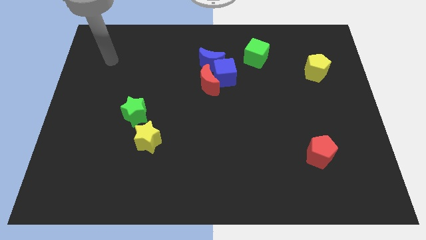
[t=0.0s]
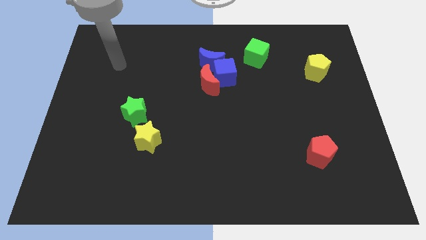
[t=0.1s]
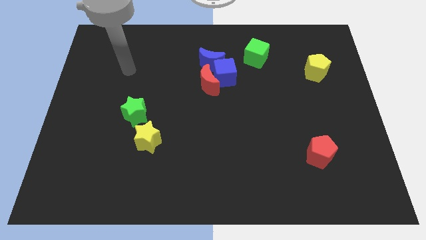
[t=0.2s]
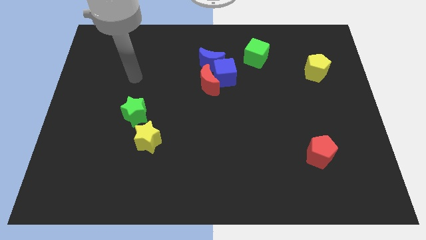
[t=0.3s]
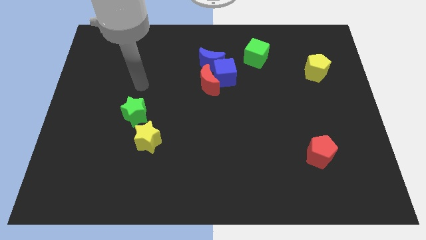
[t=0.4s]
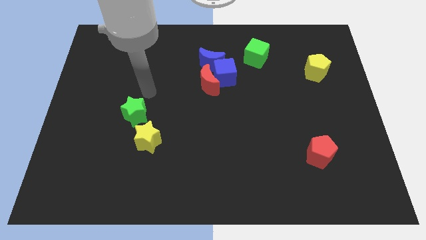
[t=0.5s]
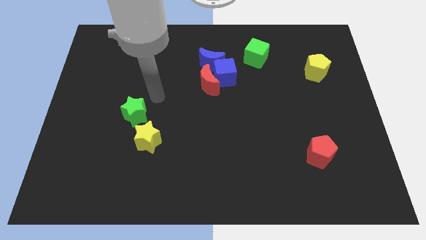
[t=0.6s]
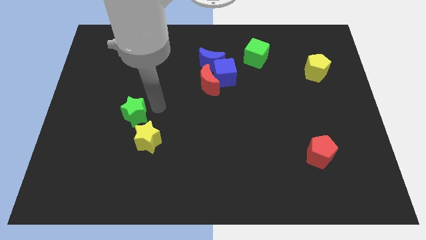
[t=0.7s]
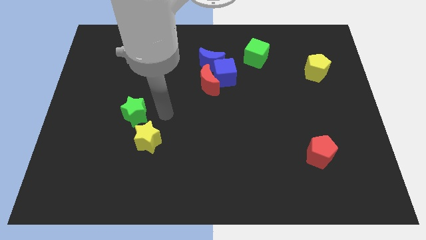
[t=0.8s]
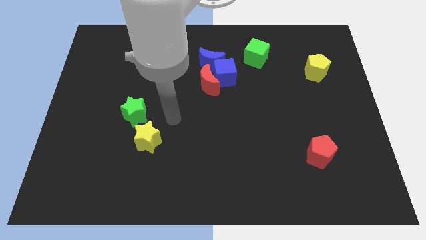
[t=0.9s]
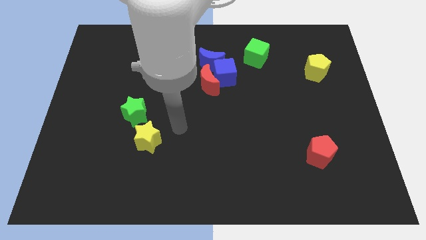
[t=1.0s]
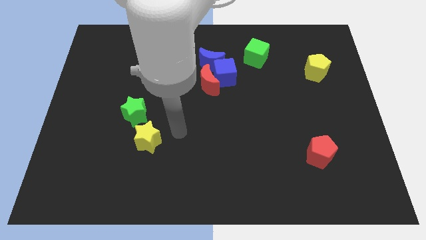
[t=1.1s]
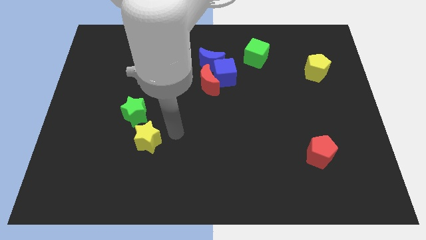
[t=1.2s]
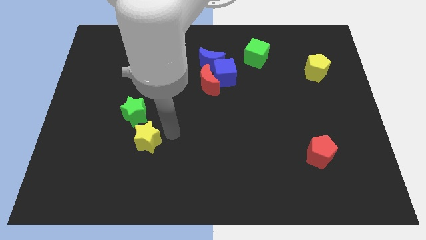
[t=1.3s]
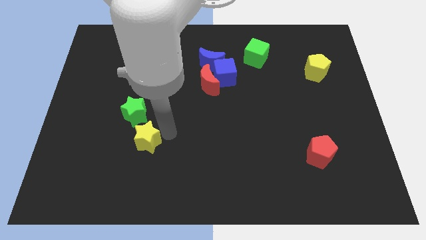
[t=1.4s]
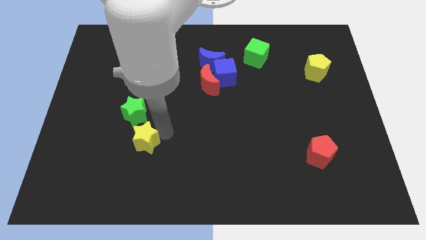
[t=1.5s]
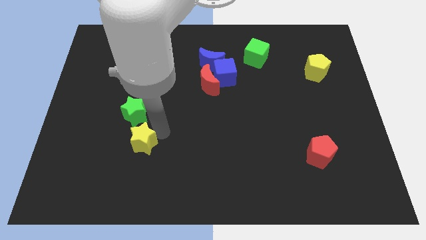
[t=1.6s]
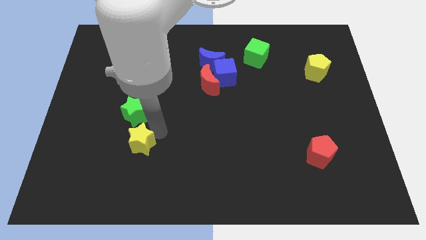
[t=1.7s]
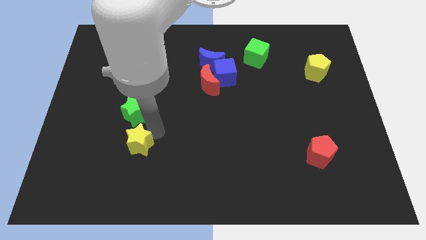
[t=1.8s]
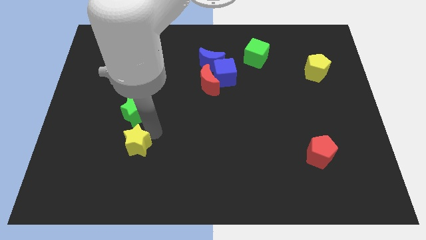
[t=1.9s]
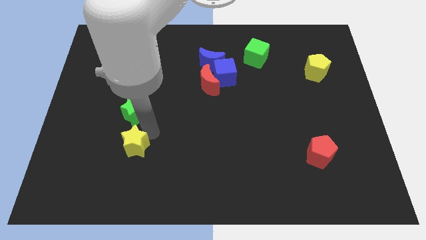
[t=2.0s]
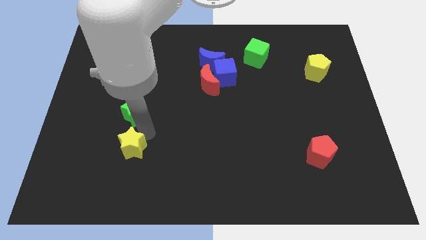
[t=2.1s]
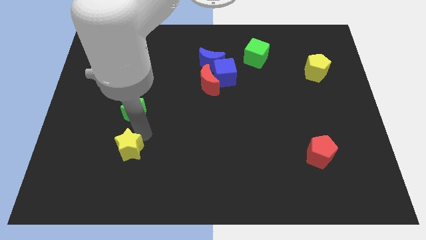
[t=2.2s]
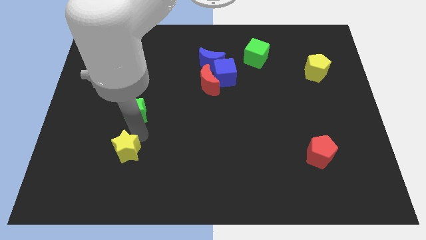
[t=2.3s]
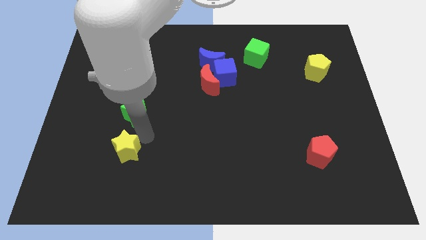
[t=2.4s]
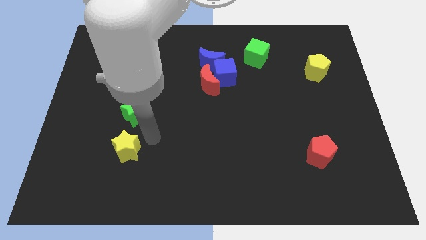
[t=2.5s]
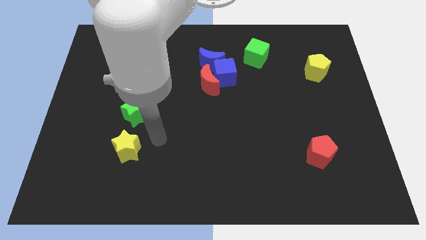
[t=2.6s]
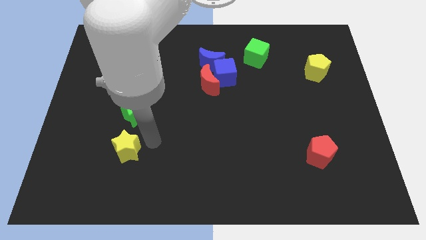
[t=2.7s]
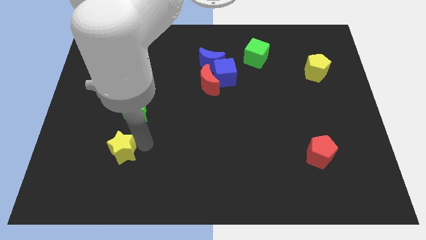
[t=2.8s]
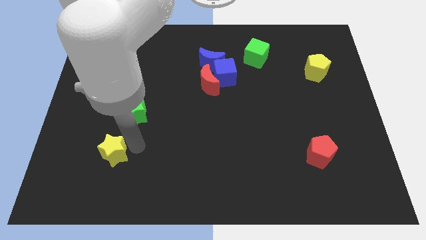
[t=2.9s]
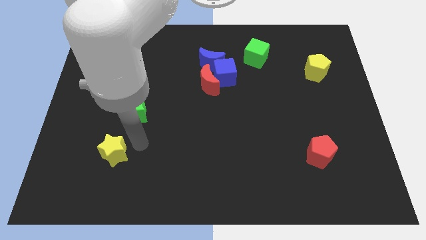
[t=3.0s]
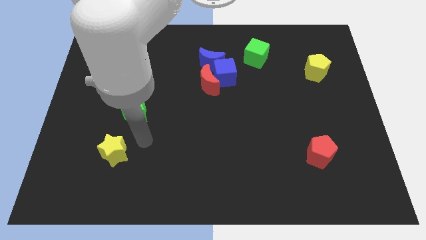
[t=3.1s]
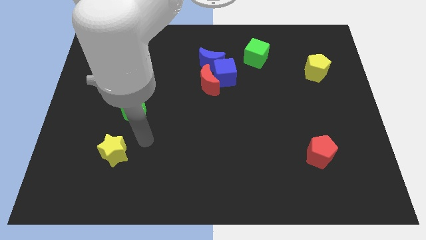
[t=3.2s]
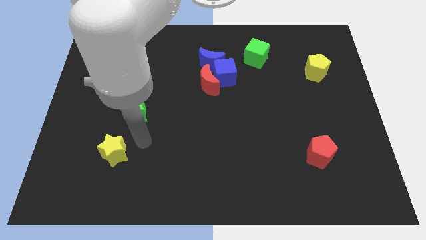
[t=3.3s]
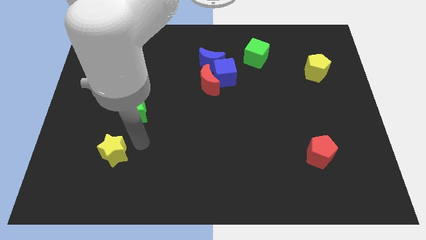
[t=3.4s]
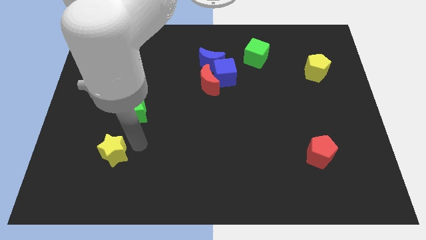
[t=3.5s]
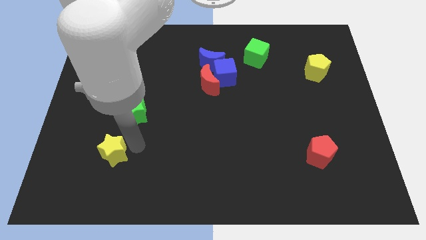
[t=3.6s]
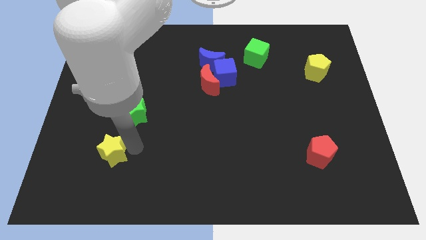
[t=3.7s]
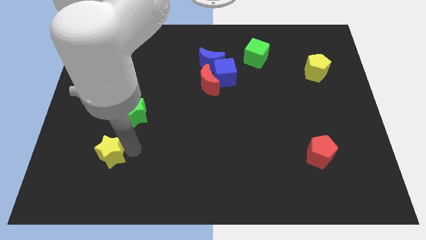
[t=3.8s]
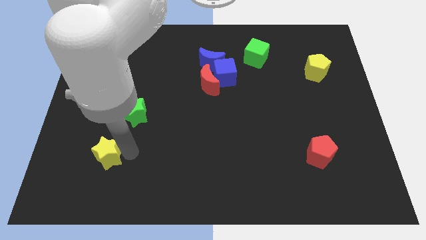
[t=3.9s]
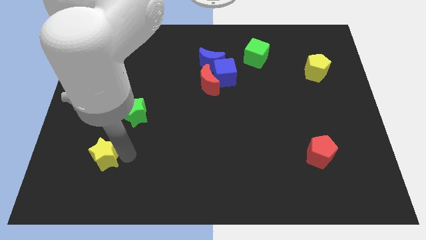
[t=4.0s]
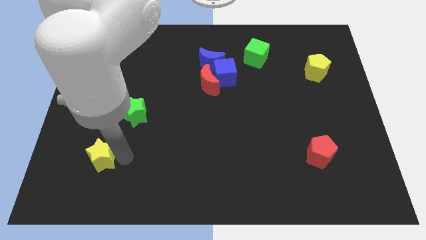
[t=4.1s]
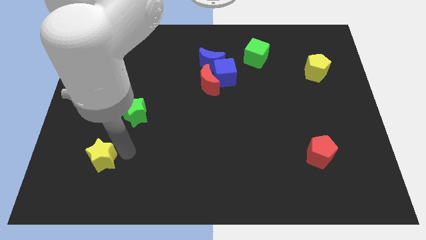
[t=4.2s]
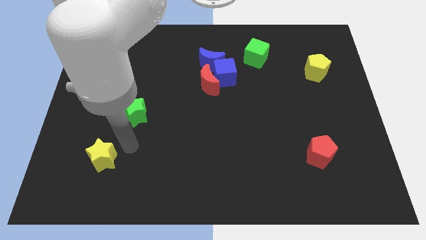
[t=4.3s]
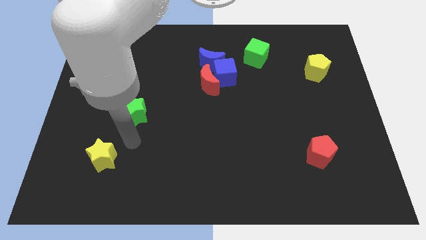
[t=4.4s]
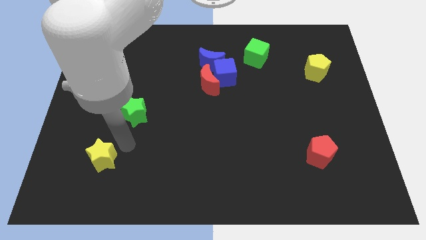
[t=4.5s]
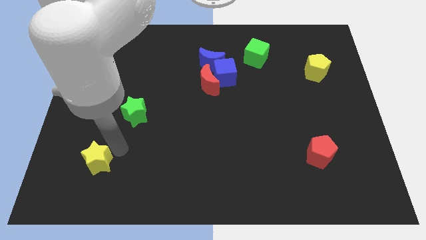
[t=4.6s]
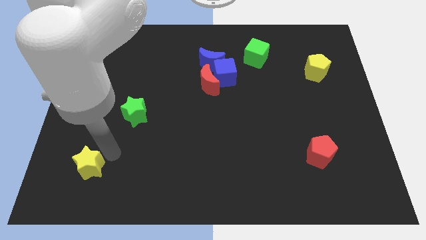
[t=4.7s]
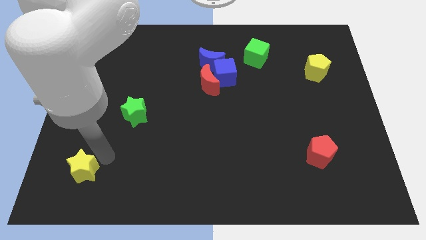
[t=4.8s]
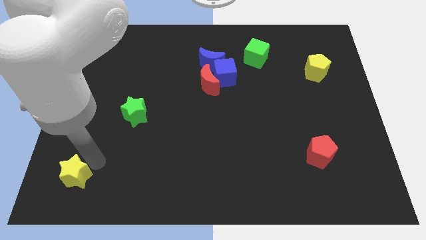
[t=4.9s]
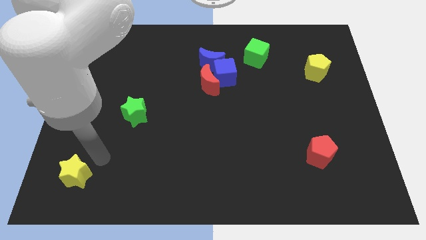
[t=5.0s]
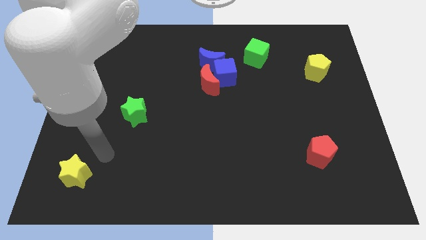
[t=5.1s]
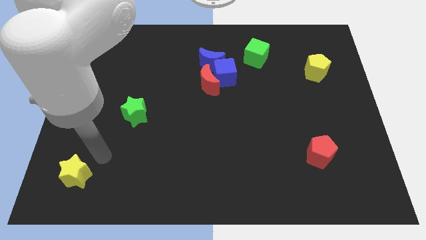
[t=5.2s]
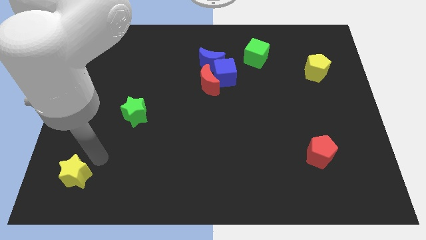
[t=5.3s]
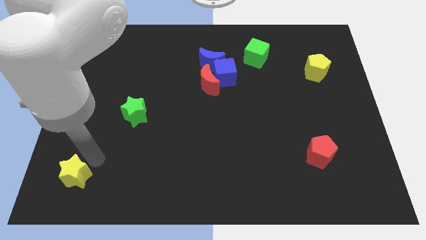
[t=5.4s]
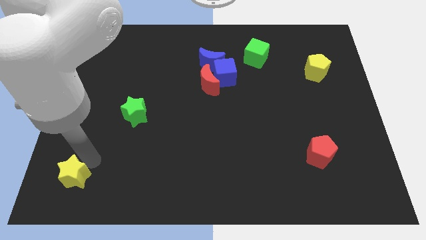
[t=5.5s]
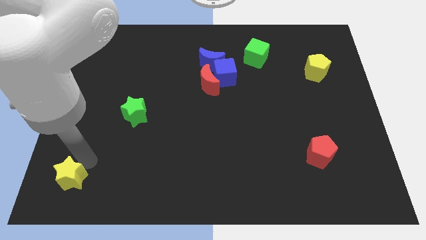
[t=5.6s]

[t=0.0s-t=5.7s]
push the yellow star to the lower left corner

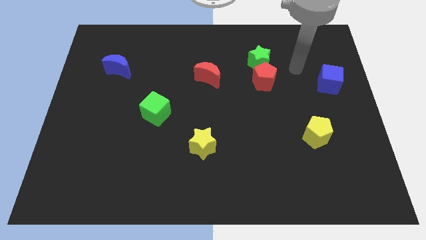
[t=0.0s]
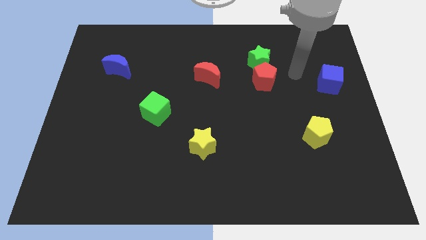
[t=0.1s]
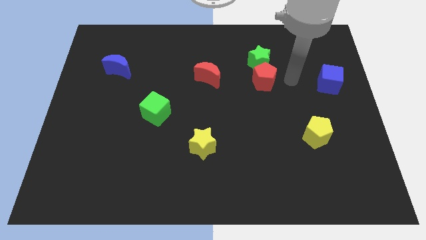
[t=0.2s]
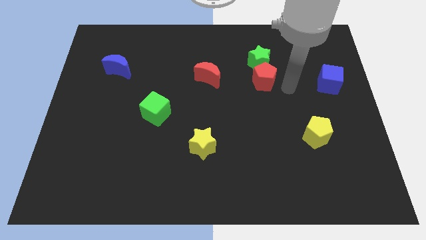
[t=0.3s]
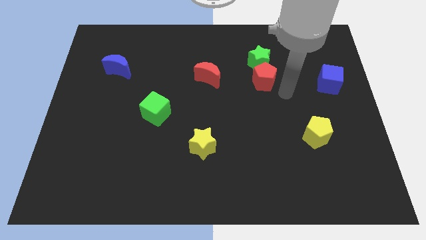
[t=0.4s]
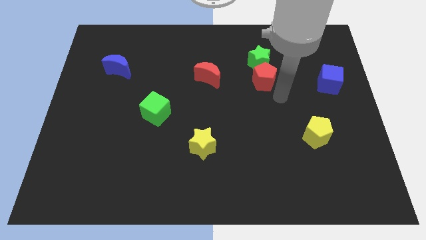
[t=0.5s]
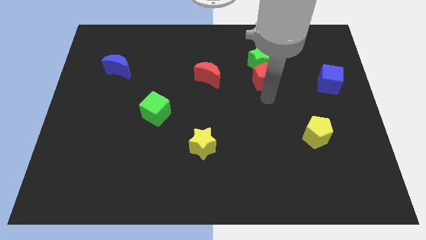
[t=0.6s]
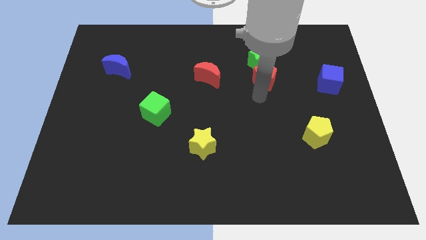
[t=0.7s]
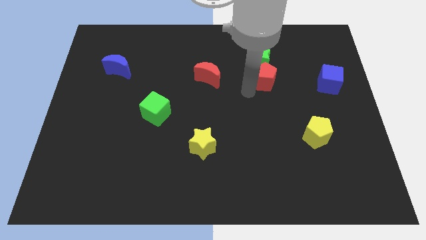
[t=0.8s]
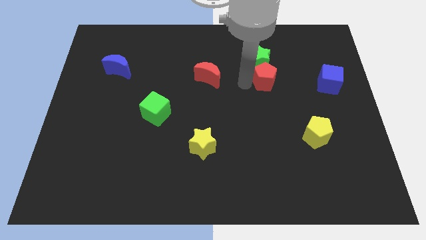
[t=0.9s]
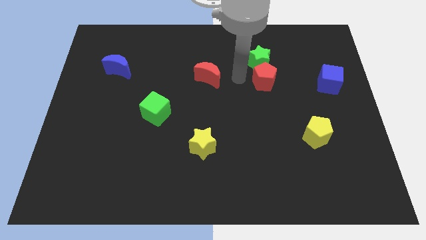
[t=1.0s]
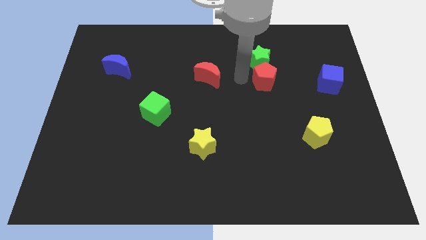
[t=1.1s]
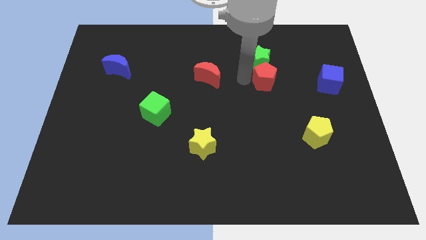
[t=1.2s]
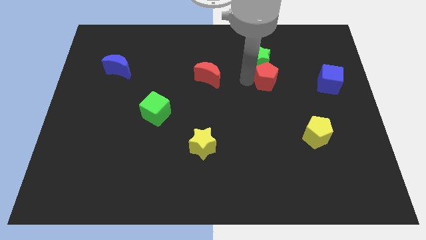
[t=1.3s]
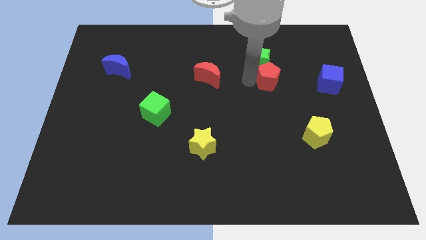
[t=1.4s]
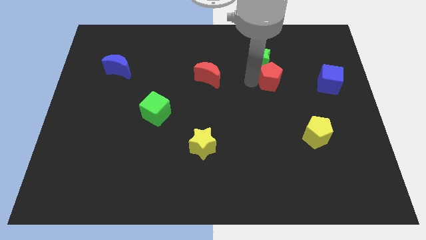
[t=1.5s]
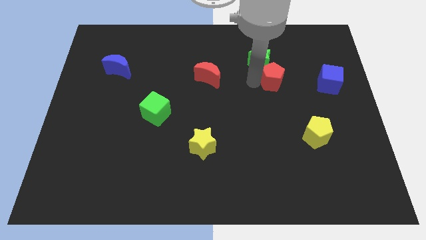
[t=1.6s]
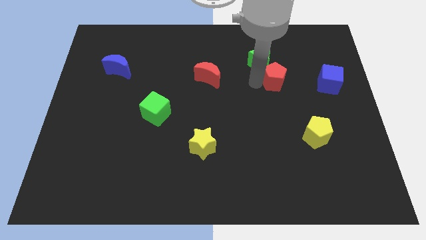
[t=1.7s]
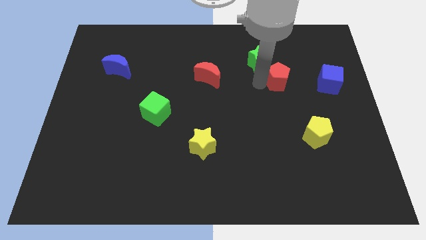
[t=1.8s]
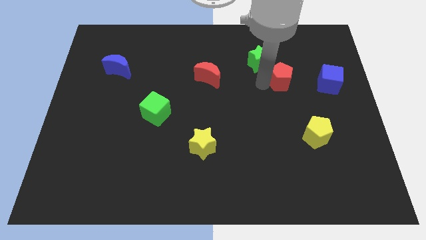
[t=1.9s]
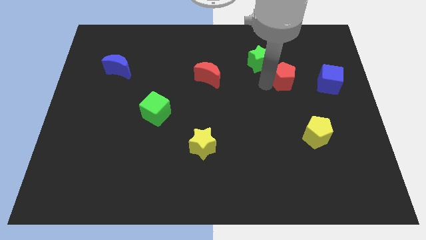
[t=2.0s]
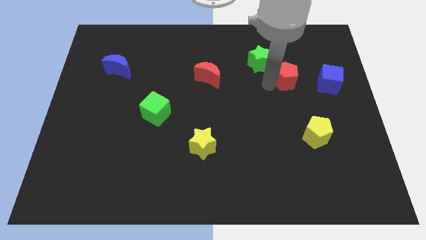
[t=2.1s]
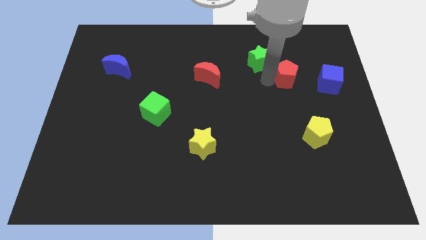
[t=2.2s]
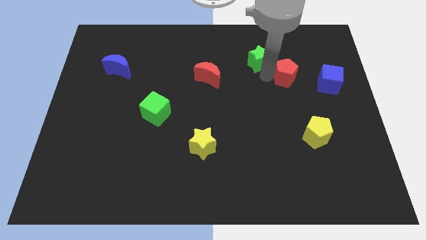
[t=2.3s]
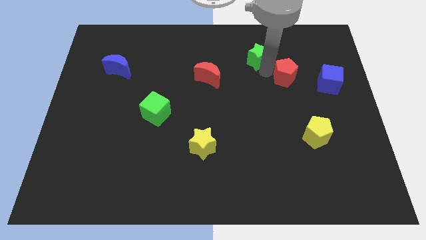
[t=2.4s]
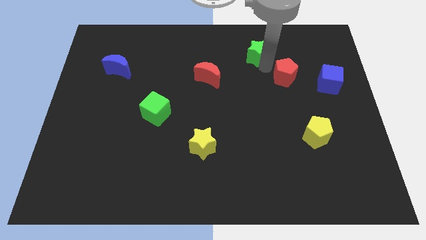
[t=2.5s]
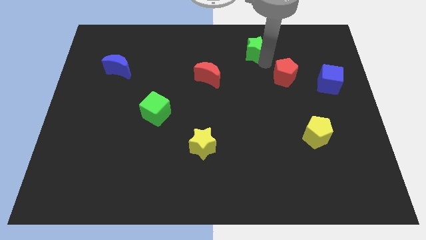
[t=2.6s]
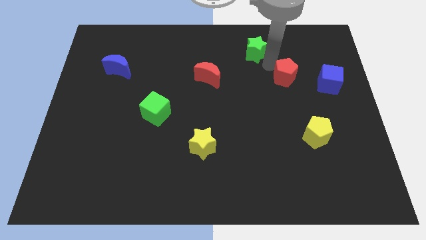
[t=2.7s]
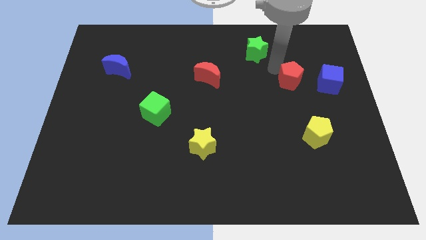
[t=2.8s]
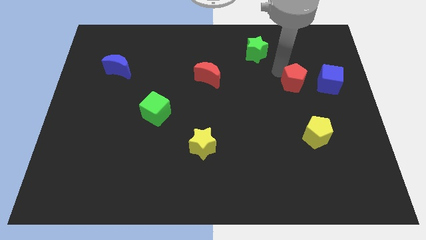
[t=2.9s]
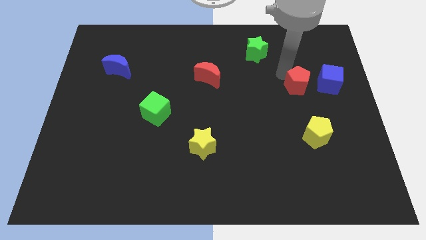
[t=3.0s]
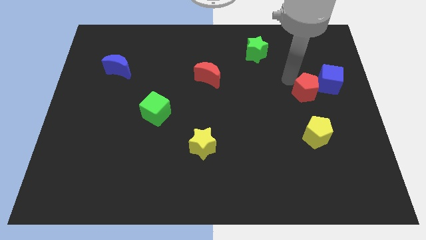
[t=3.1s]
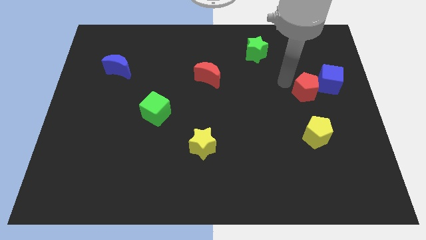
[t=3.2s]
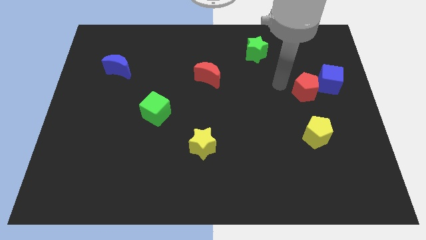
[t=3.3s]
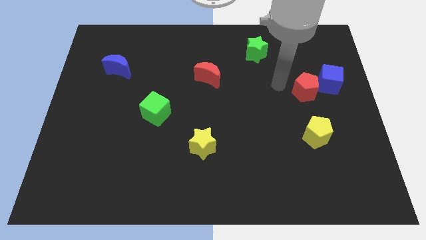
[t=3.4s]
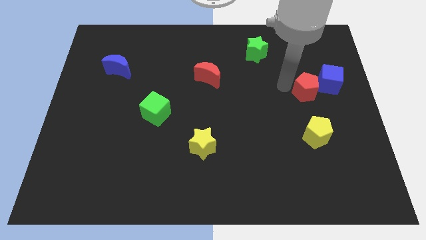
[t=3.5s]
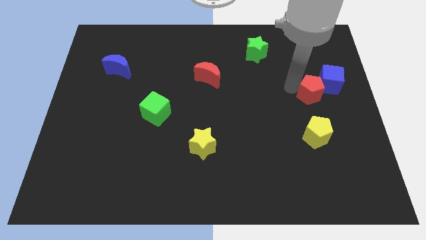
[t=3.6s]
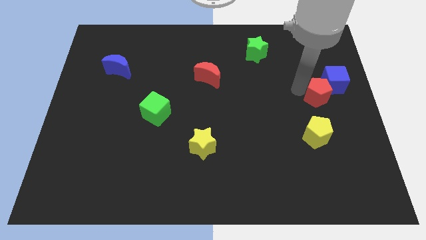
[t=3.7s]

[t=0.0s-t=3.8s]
put the red pentagon to the center right
